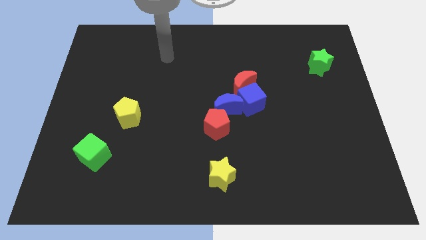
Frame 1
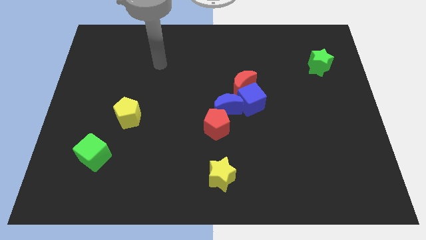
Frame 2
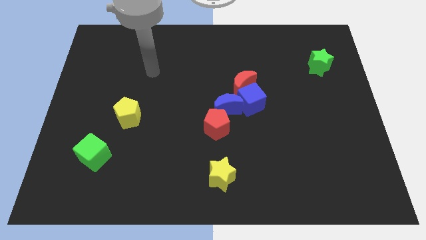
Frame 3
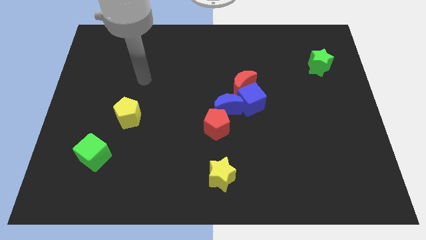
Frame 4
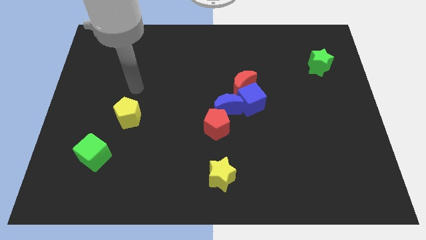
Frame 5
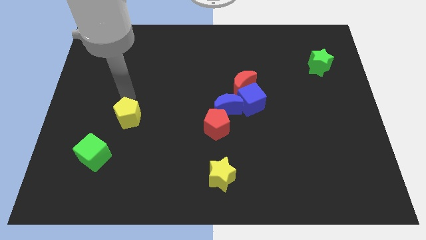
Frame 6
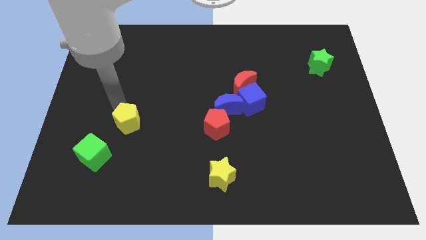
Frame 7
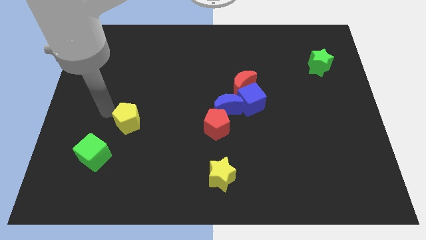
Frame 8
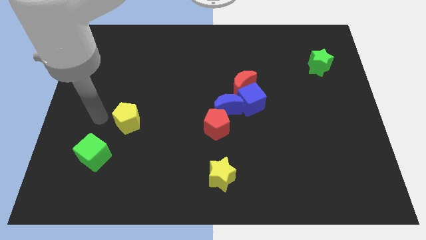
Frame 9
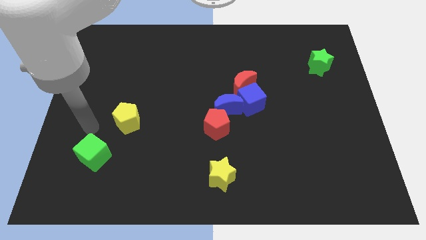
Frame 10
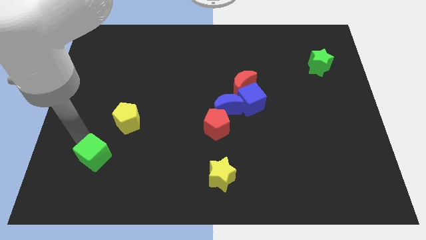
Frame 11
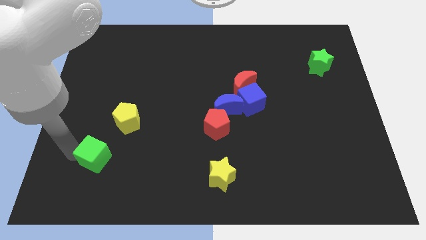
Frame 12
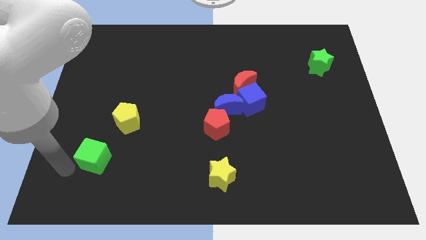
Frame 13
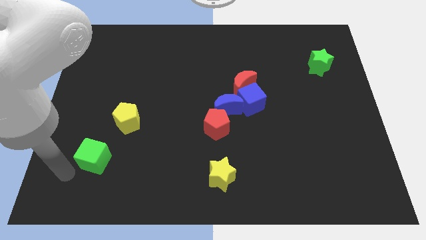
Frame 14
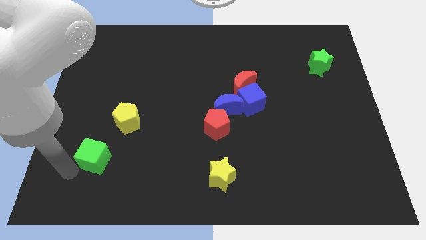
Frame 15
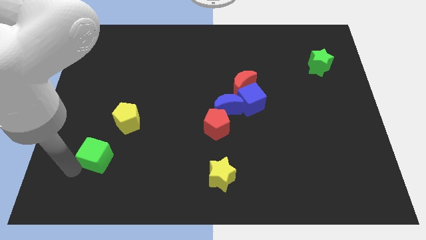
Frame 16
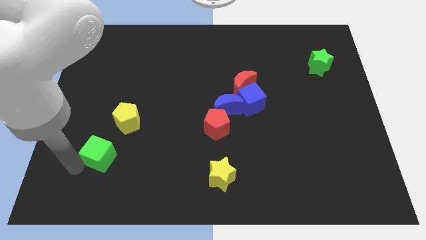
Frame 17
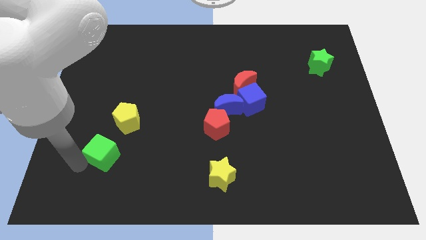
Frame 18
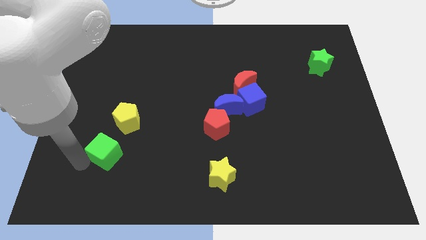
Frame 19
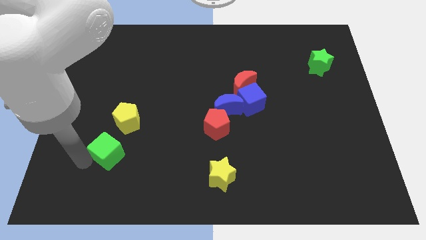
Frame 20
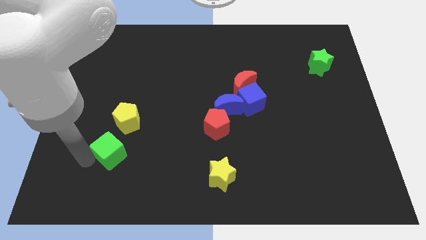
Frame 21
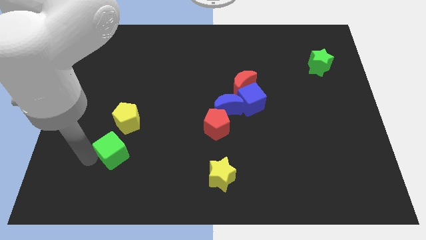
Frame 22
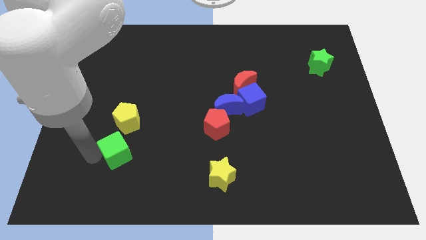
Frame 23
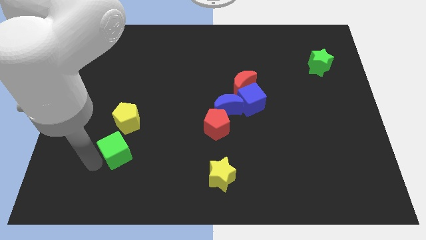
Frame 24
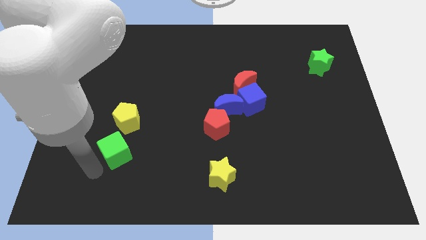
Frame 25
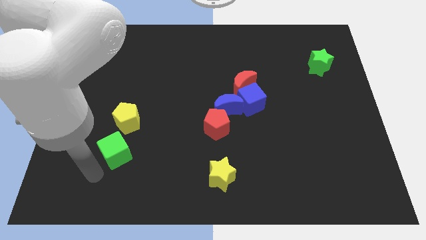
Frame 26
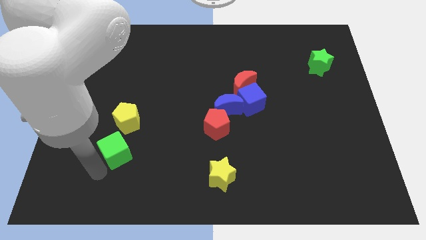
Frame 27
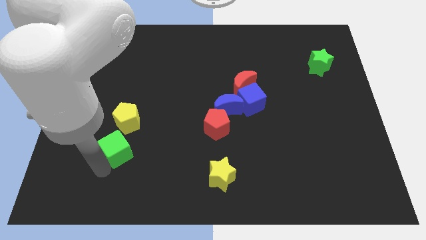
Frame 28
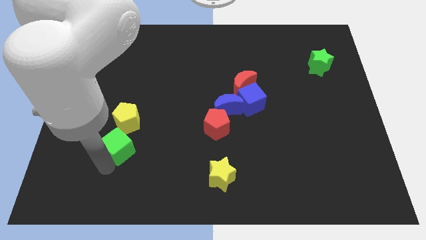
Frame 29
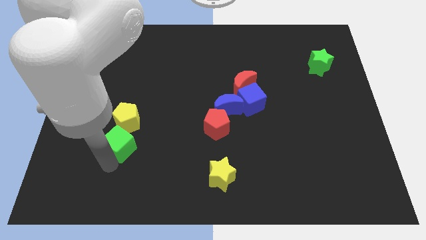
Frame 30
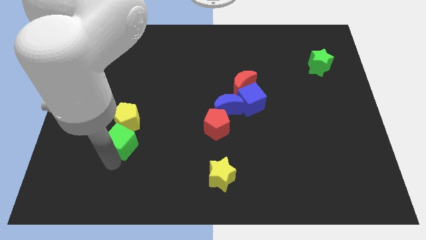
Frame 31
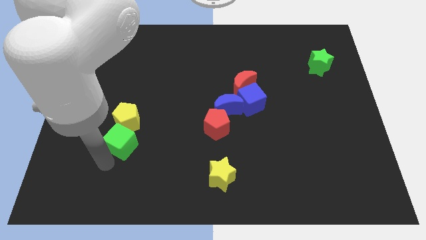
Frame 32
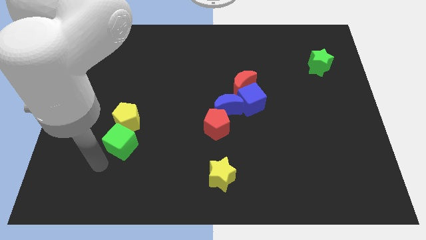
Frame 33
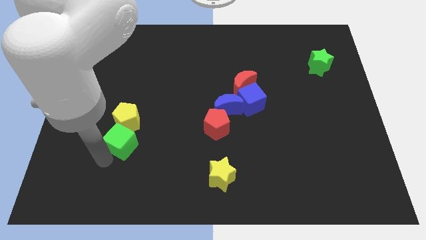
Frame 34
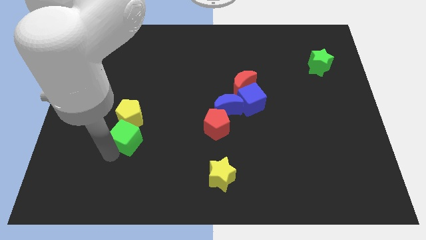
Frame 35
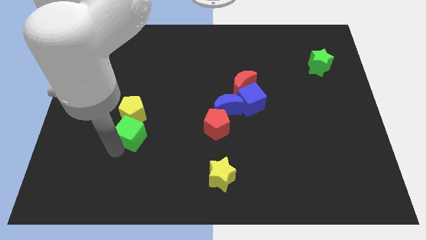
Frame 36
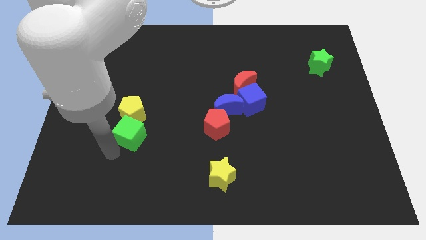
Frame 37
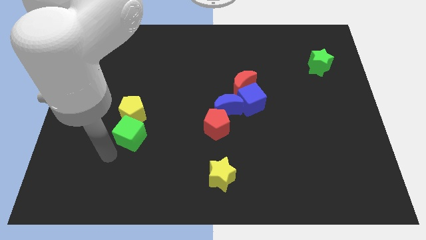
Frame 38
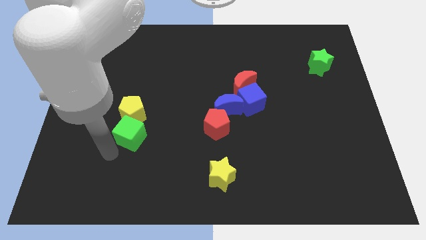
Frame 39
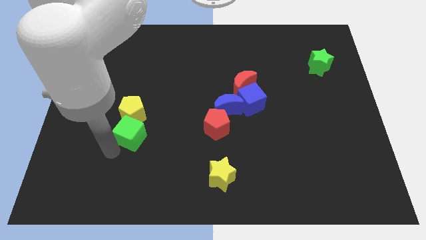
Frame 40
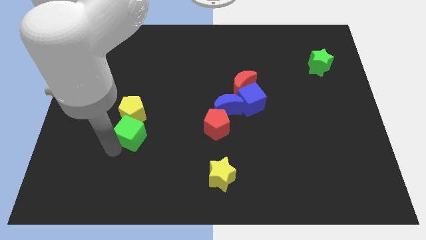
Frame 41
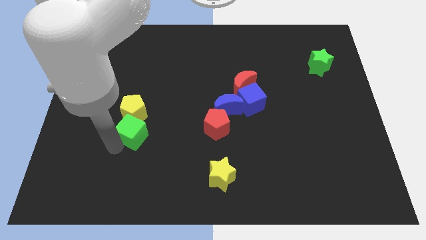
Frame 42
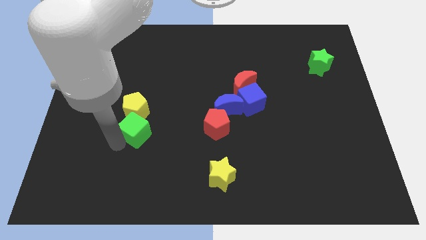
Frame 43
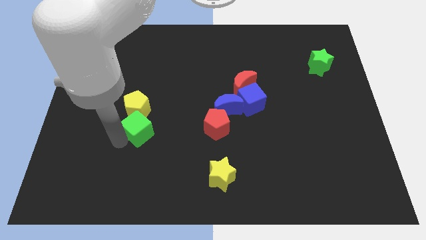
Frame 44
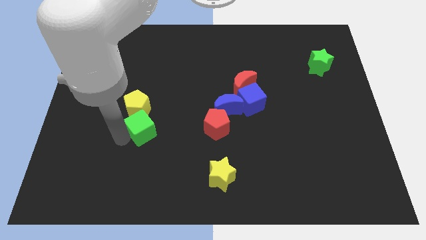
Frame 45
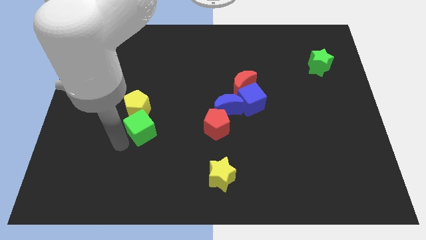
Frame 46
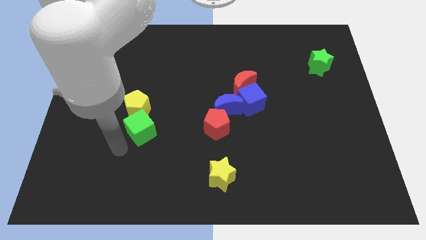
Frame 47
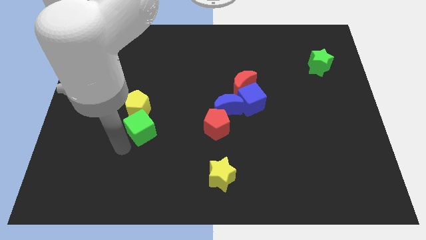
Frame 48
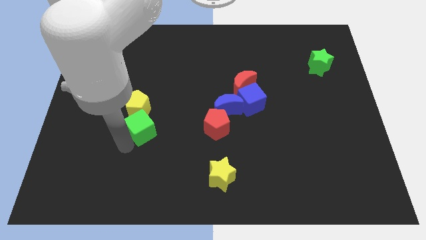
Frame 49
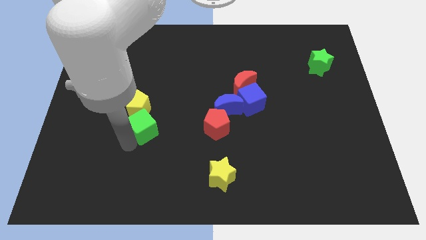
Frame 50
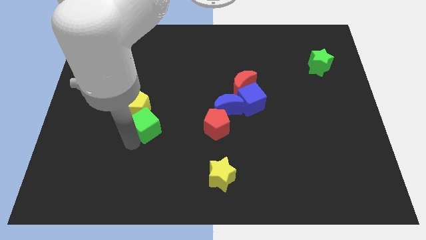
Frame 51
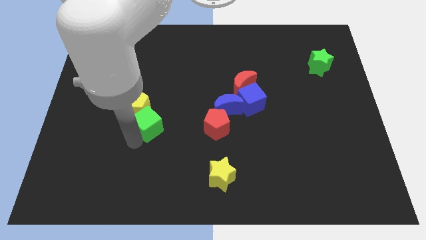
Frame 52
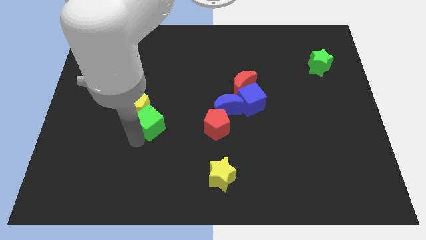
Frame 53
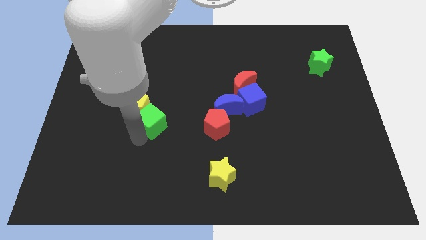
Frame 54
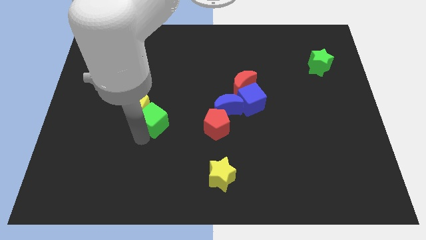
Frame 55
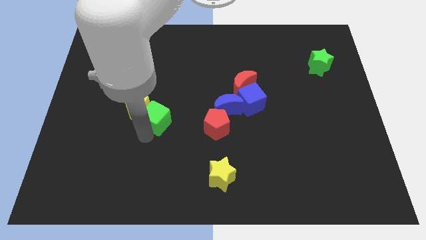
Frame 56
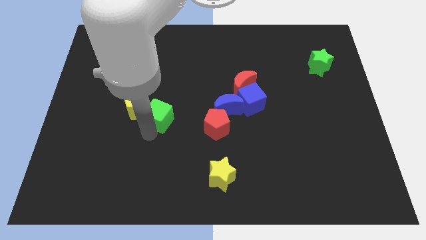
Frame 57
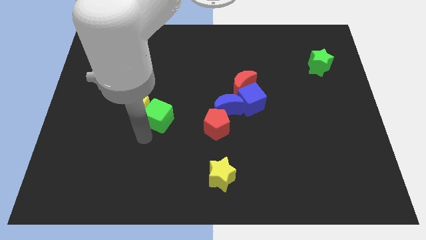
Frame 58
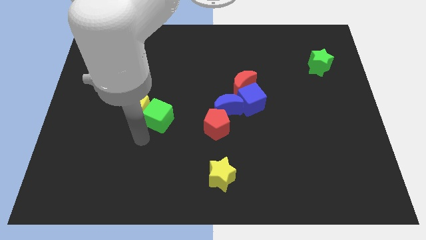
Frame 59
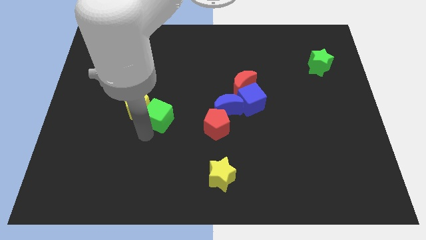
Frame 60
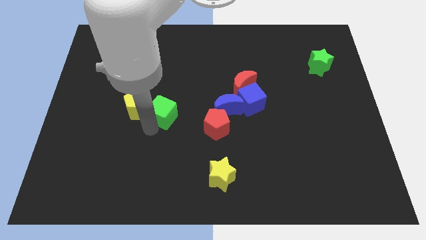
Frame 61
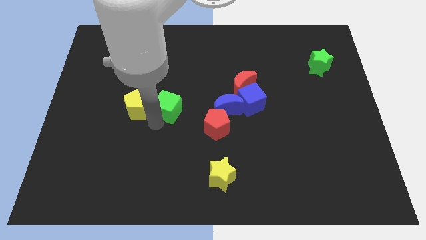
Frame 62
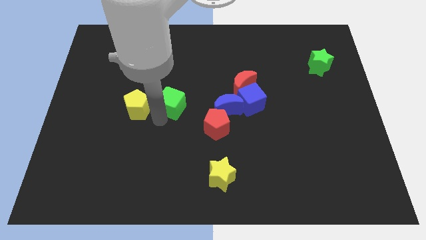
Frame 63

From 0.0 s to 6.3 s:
slide the green cube diagonally upwards and to the right

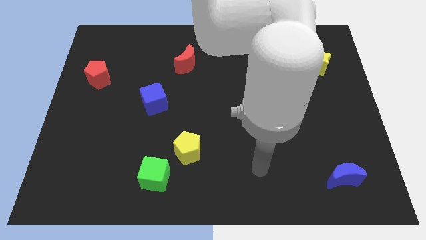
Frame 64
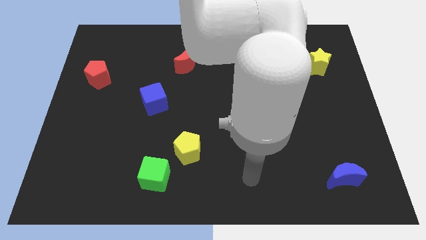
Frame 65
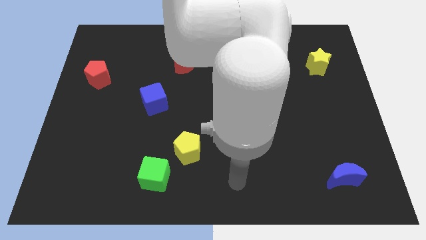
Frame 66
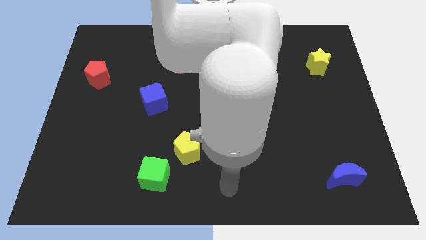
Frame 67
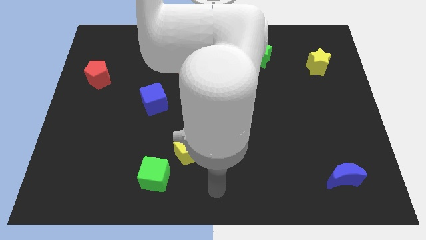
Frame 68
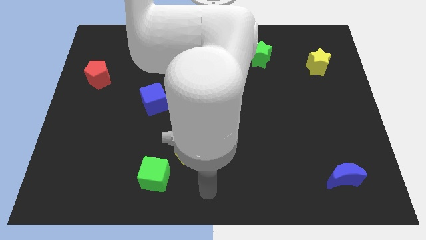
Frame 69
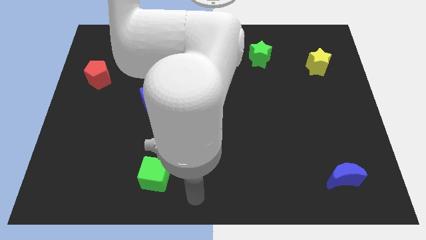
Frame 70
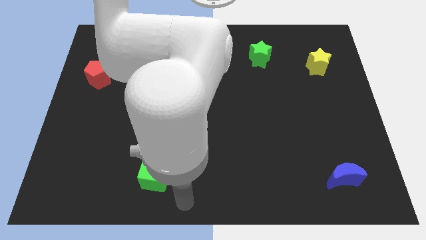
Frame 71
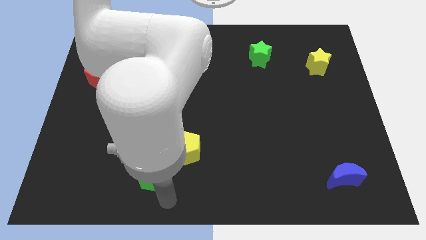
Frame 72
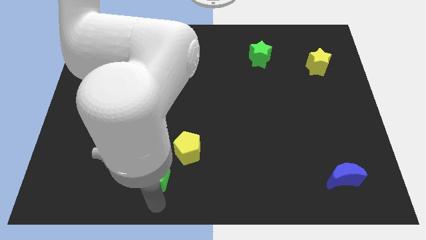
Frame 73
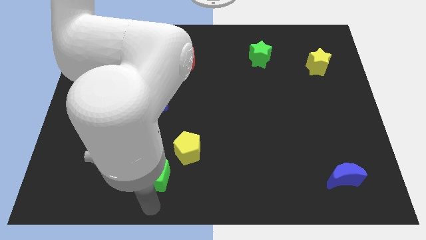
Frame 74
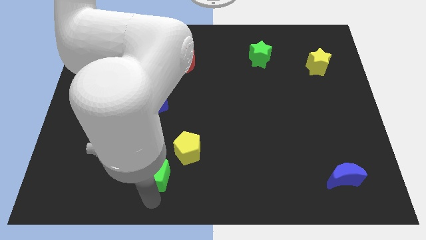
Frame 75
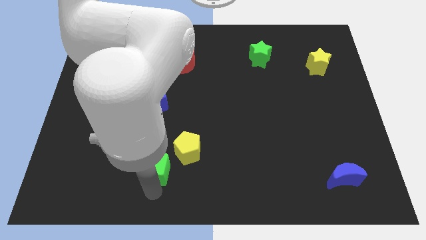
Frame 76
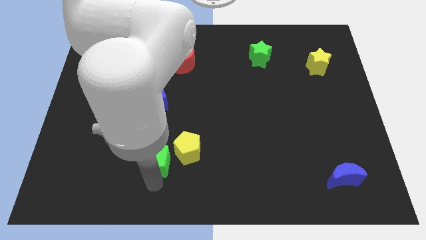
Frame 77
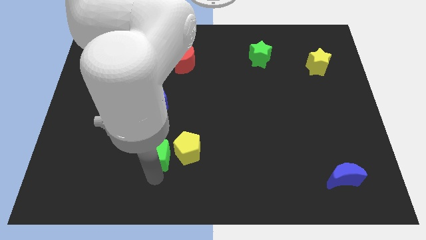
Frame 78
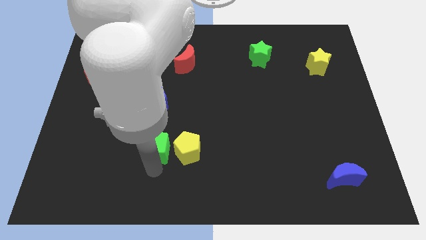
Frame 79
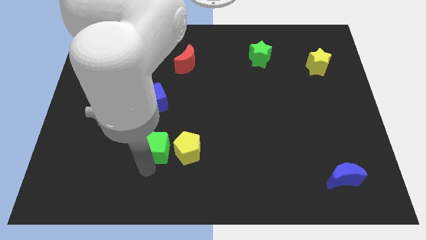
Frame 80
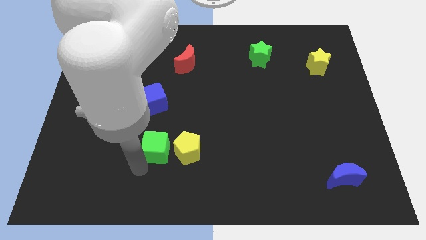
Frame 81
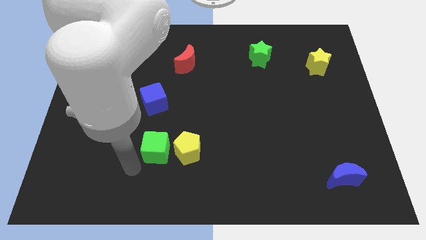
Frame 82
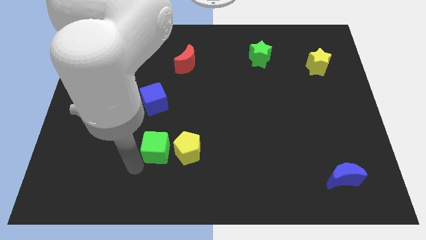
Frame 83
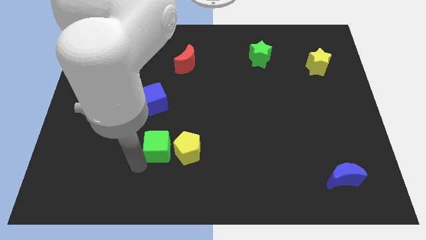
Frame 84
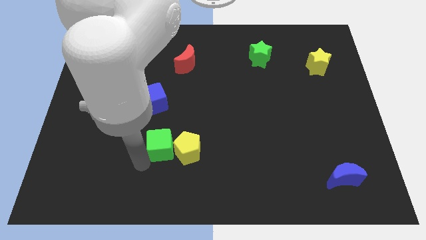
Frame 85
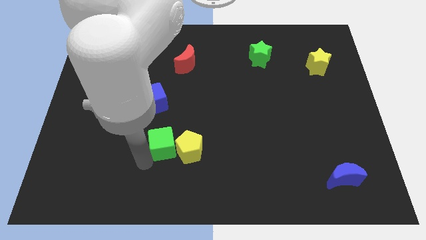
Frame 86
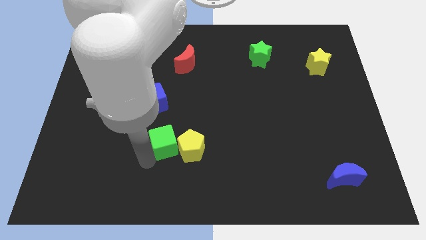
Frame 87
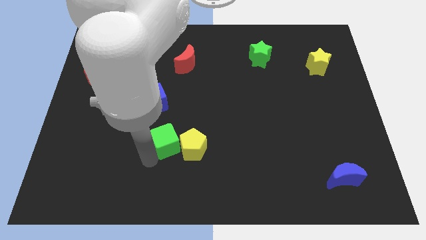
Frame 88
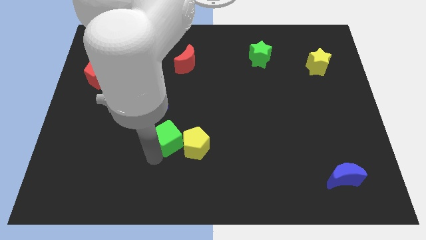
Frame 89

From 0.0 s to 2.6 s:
push the green cube up and then to the right slightly
